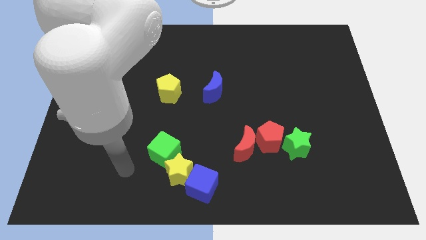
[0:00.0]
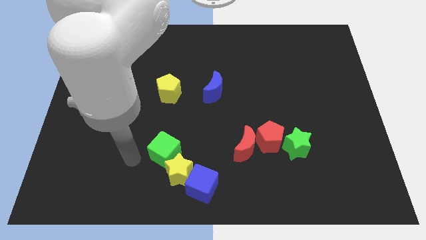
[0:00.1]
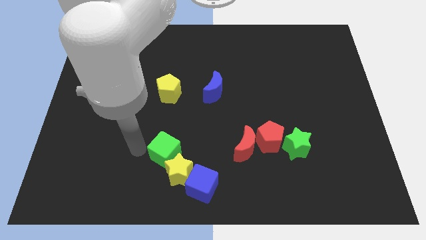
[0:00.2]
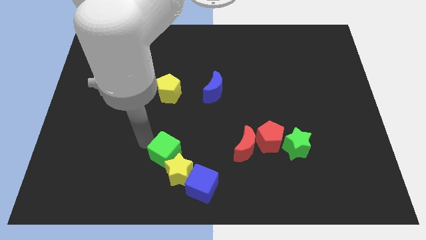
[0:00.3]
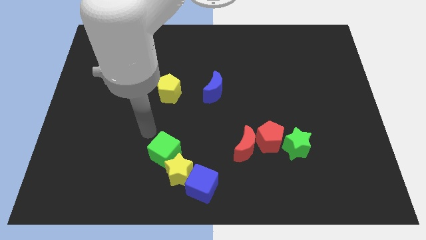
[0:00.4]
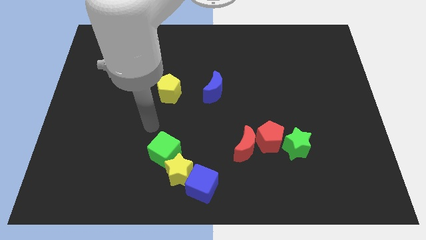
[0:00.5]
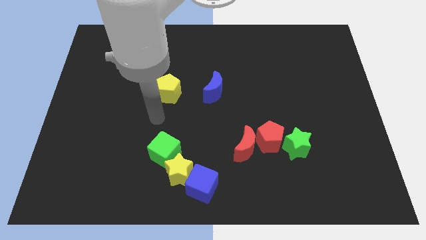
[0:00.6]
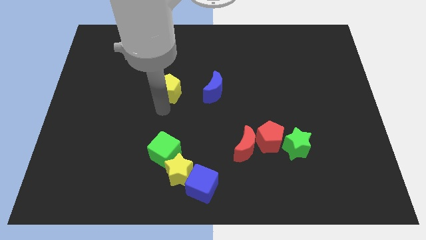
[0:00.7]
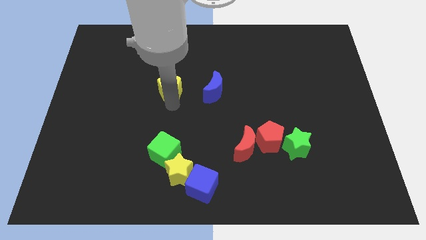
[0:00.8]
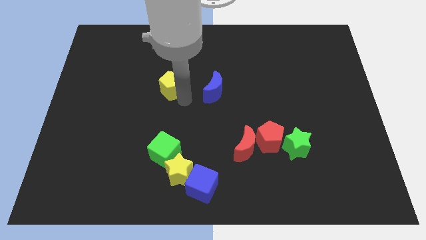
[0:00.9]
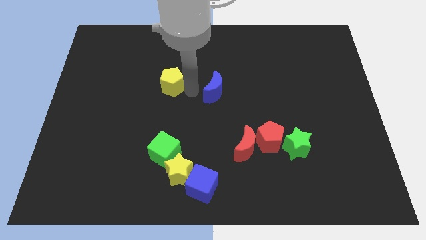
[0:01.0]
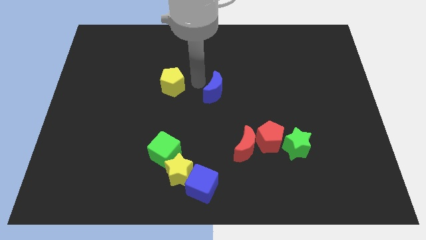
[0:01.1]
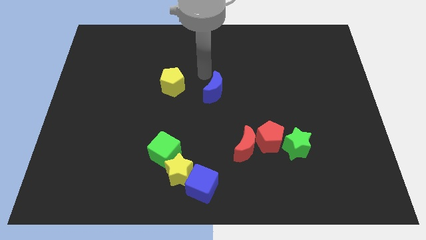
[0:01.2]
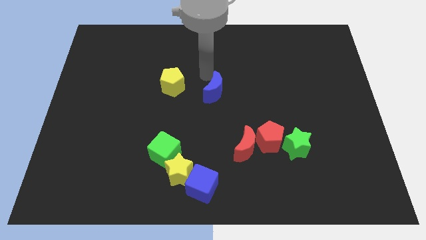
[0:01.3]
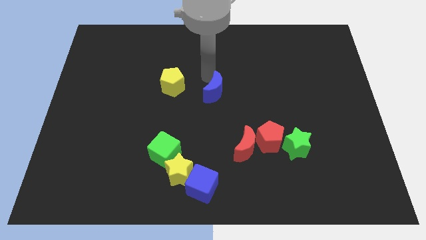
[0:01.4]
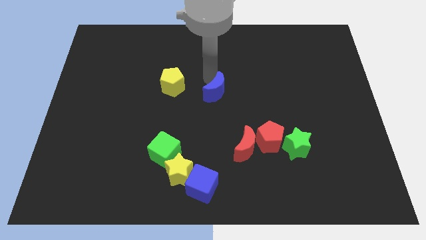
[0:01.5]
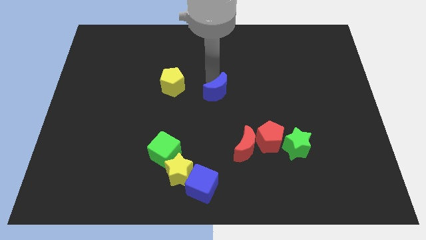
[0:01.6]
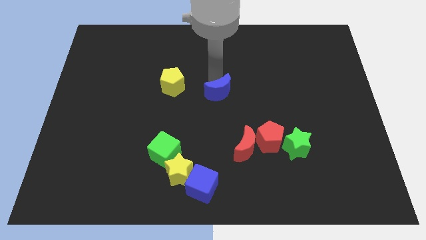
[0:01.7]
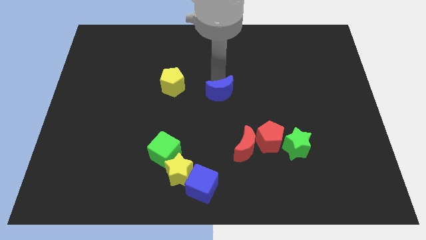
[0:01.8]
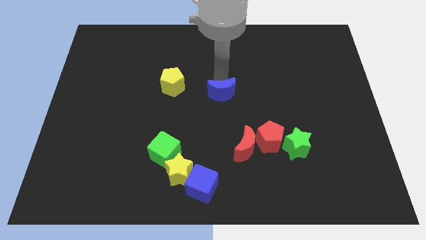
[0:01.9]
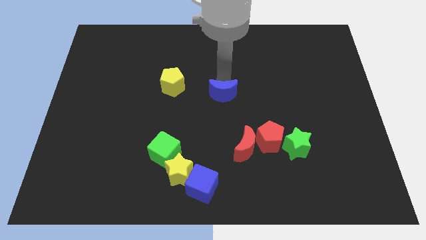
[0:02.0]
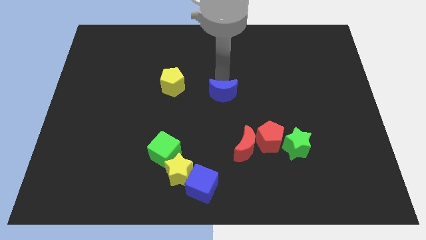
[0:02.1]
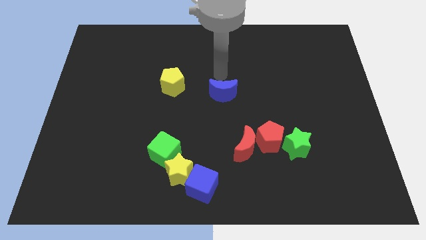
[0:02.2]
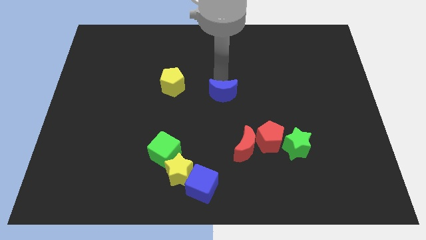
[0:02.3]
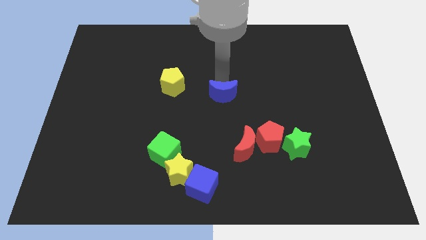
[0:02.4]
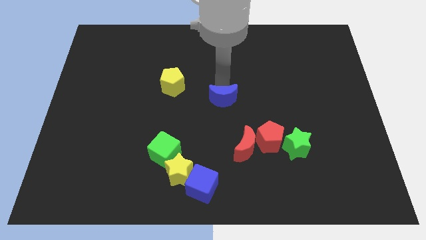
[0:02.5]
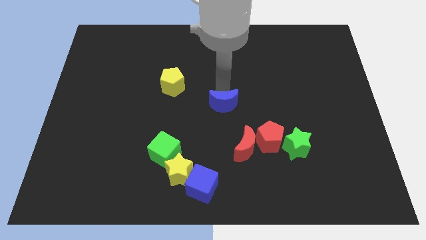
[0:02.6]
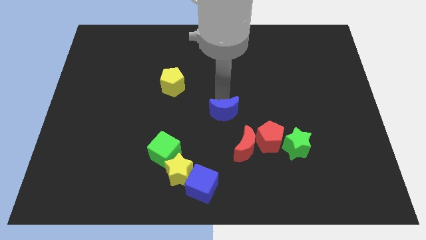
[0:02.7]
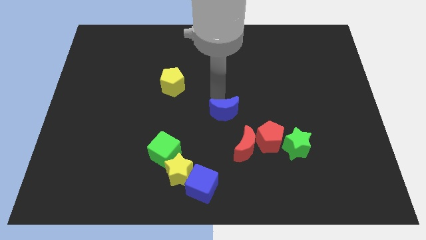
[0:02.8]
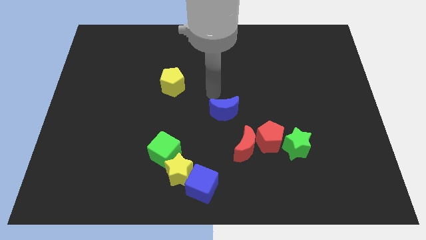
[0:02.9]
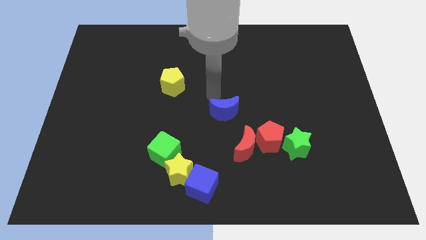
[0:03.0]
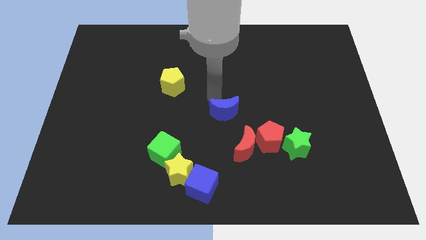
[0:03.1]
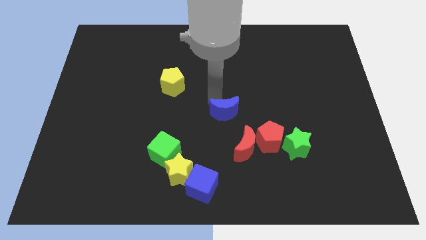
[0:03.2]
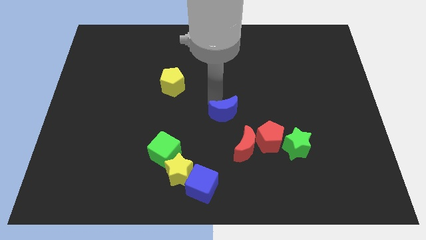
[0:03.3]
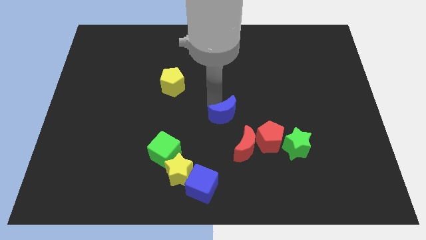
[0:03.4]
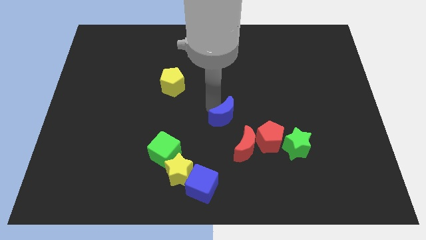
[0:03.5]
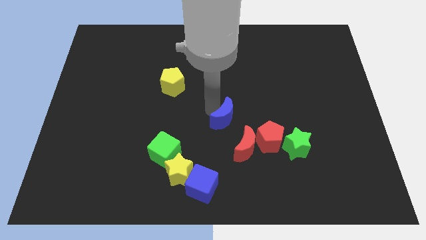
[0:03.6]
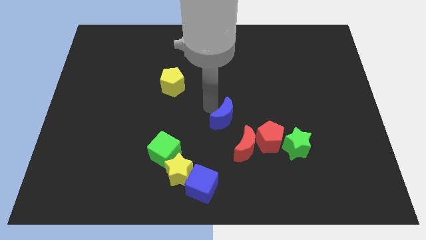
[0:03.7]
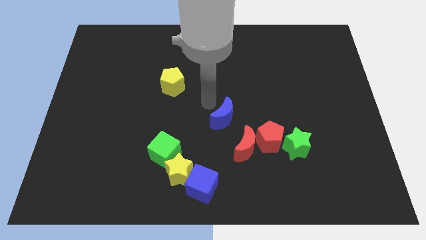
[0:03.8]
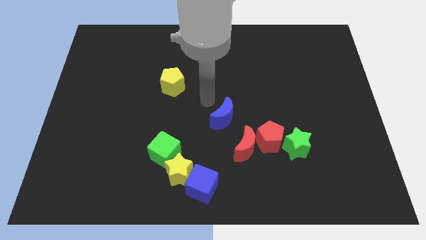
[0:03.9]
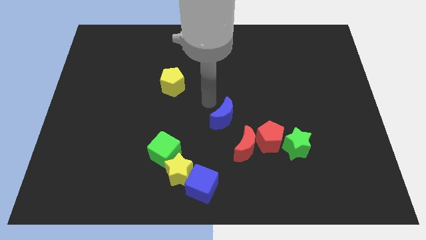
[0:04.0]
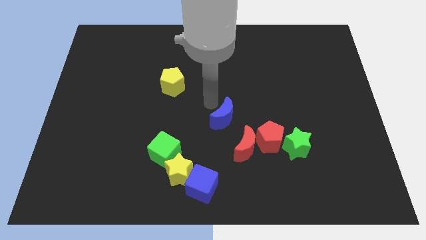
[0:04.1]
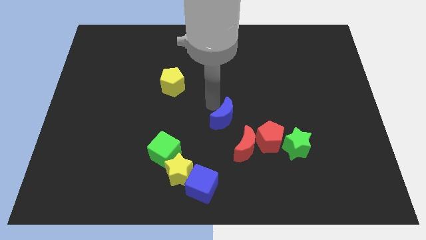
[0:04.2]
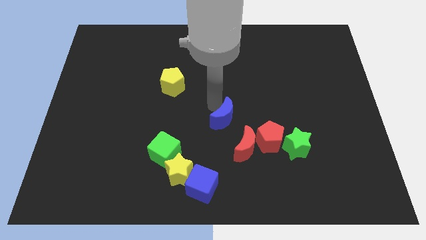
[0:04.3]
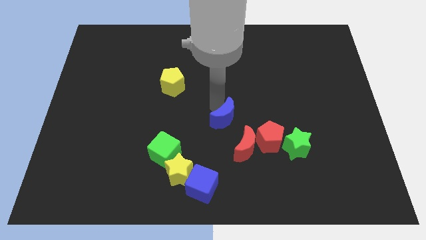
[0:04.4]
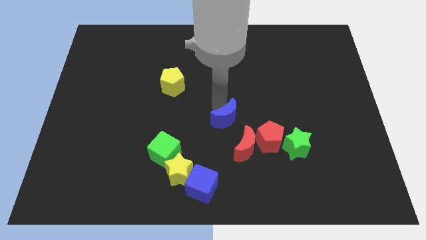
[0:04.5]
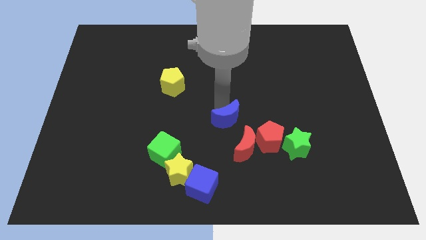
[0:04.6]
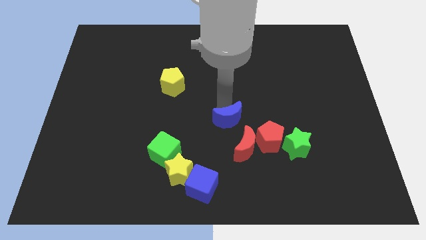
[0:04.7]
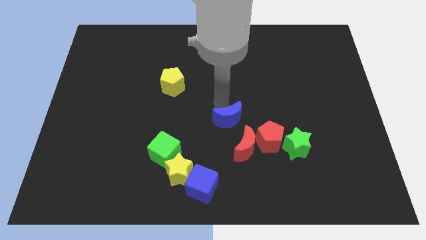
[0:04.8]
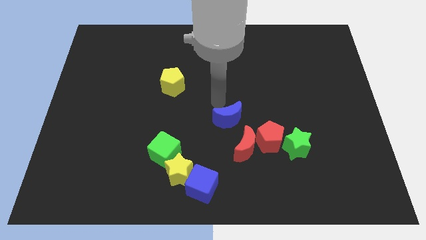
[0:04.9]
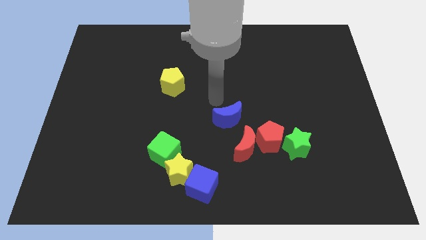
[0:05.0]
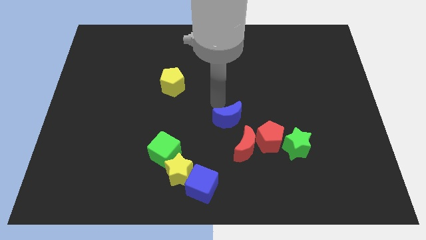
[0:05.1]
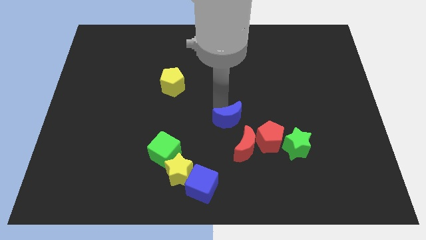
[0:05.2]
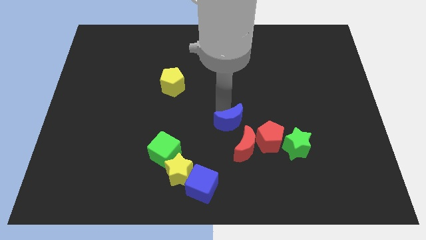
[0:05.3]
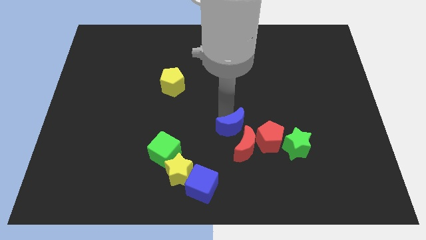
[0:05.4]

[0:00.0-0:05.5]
slide the blue moon to the red moon
